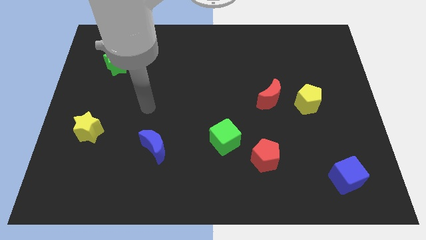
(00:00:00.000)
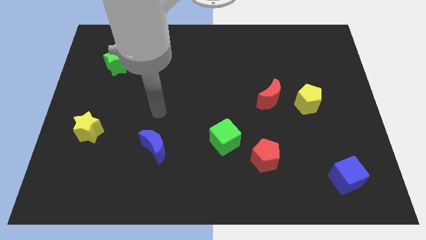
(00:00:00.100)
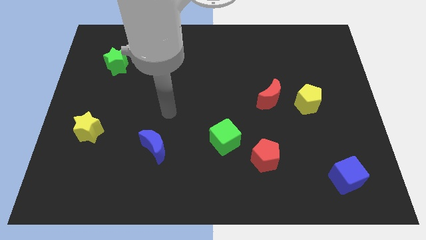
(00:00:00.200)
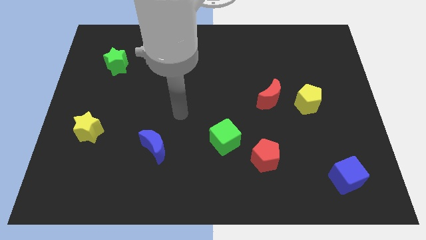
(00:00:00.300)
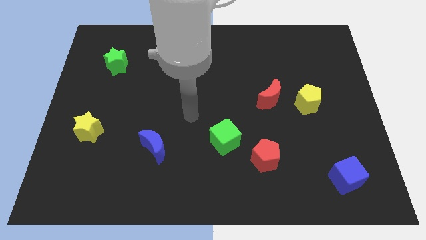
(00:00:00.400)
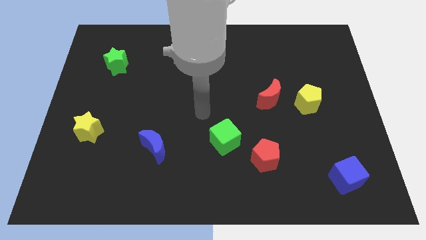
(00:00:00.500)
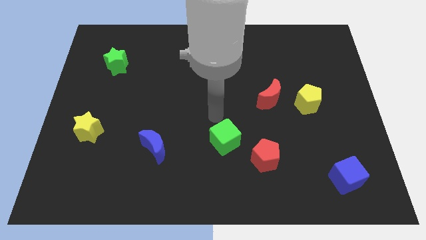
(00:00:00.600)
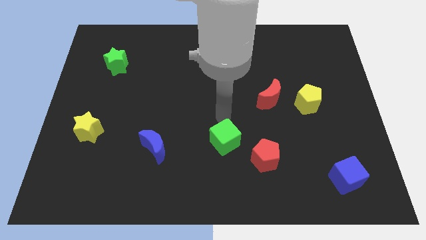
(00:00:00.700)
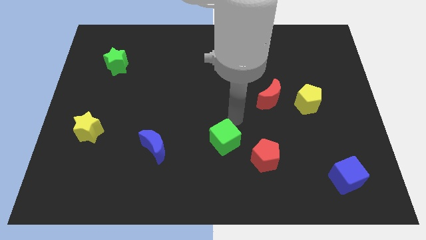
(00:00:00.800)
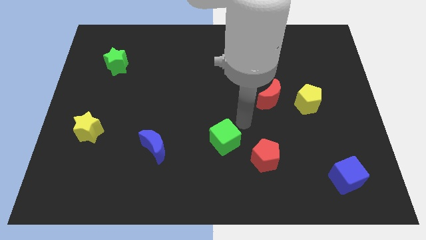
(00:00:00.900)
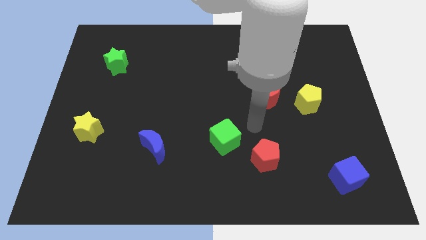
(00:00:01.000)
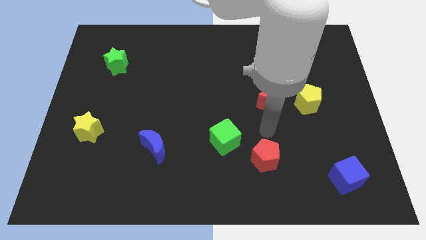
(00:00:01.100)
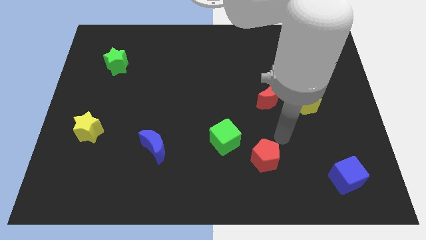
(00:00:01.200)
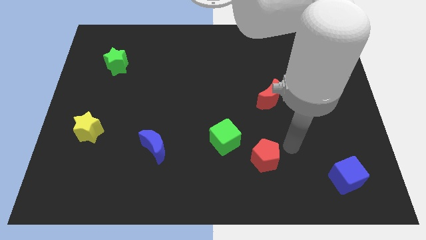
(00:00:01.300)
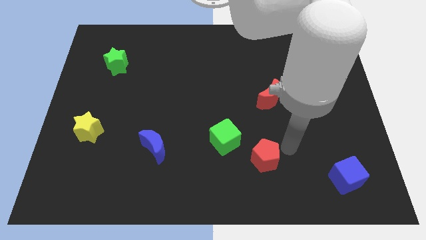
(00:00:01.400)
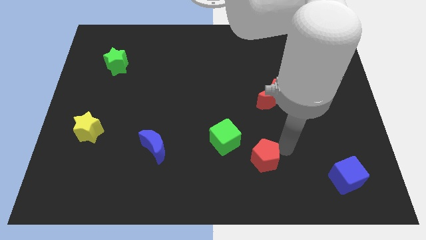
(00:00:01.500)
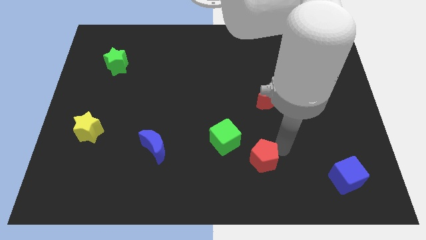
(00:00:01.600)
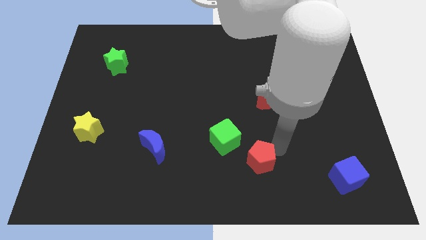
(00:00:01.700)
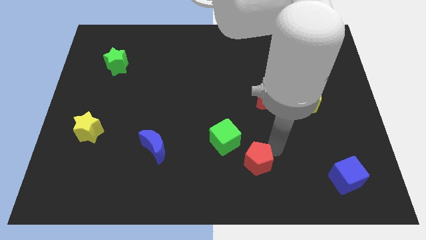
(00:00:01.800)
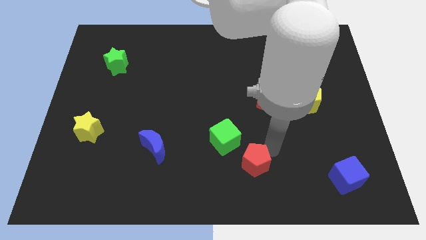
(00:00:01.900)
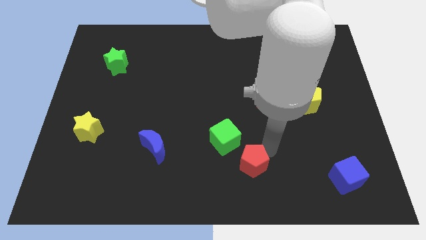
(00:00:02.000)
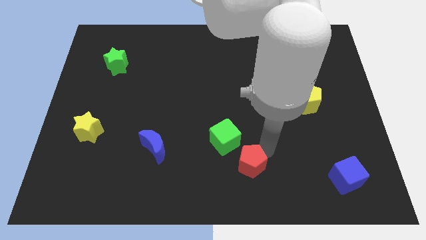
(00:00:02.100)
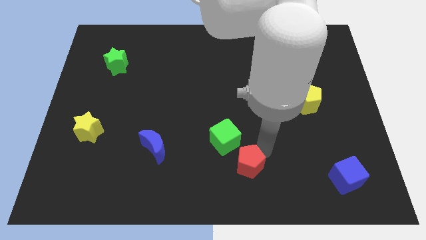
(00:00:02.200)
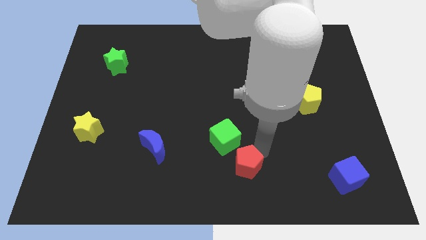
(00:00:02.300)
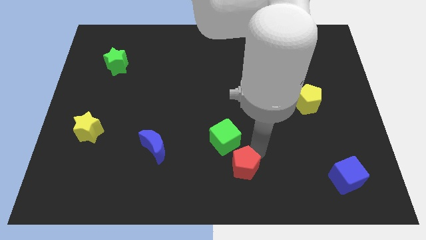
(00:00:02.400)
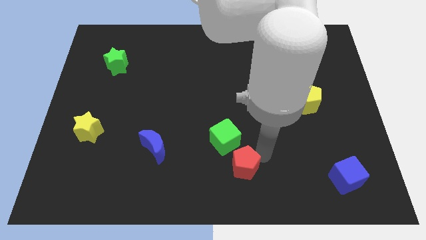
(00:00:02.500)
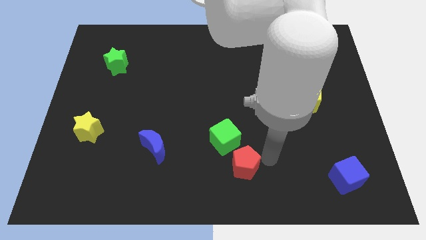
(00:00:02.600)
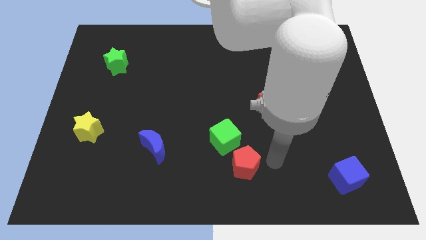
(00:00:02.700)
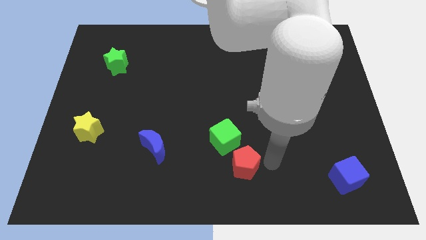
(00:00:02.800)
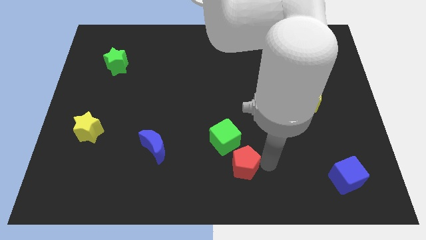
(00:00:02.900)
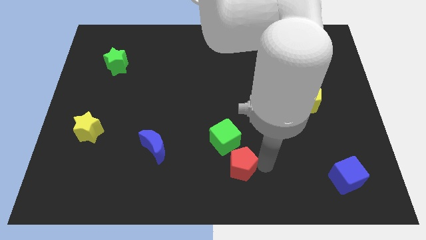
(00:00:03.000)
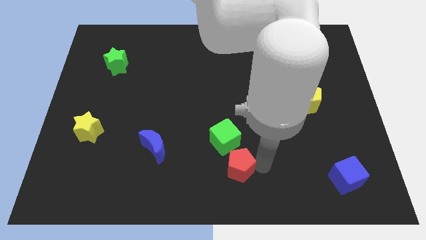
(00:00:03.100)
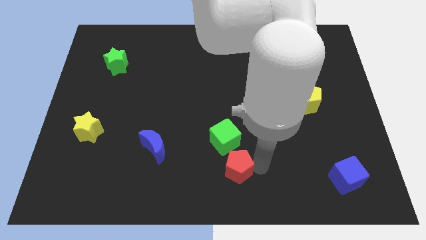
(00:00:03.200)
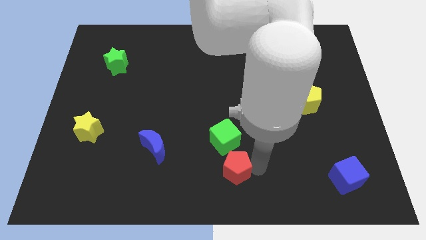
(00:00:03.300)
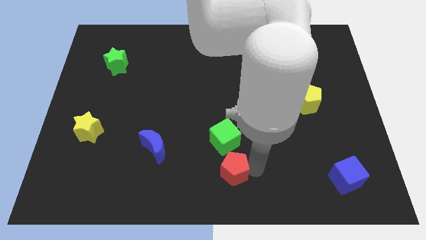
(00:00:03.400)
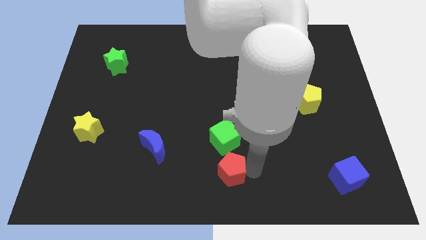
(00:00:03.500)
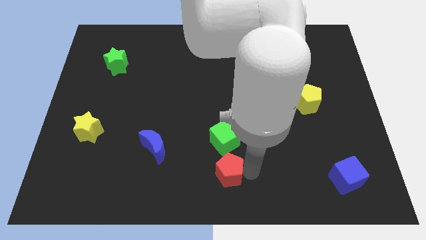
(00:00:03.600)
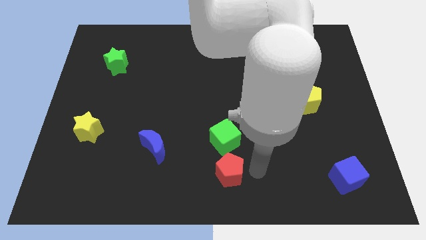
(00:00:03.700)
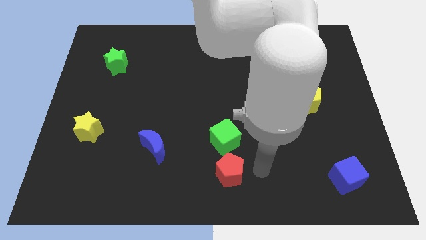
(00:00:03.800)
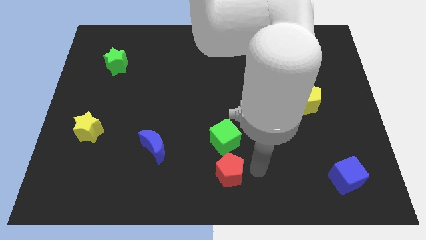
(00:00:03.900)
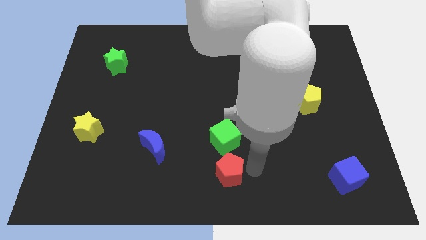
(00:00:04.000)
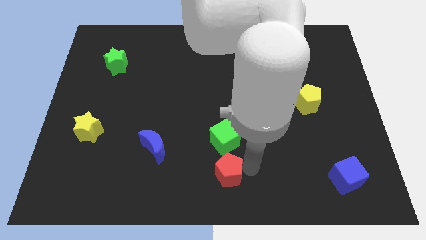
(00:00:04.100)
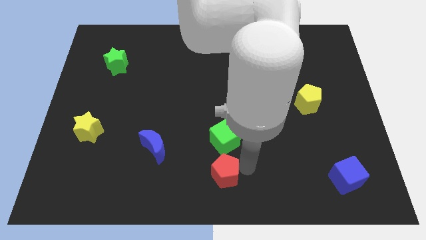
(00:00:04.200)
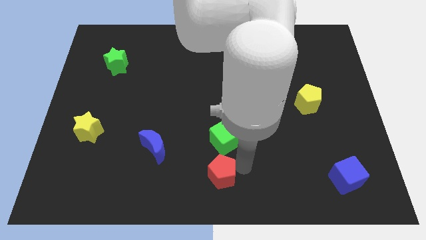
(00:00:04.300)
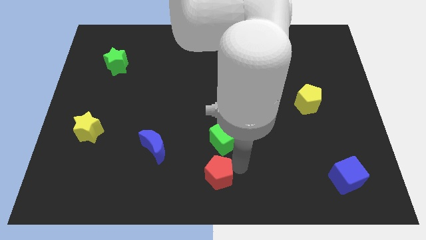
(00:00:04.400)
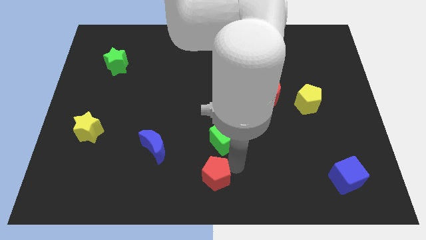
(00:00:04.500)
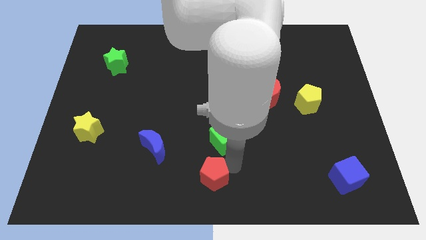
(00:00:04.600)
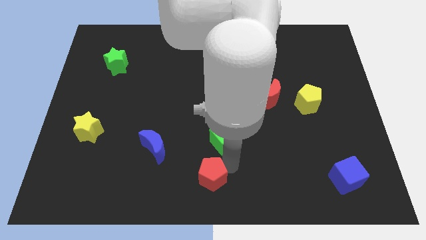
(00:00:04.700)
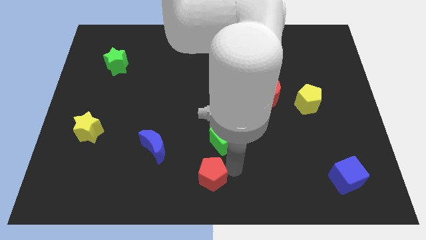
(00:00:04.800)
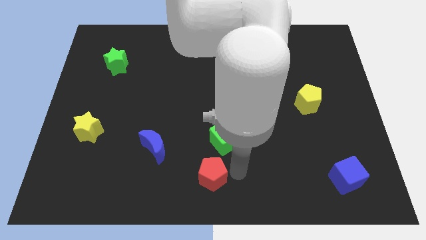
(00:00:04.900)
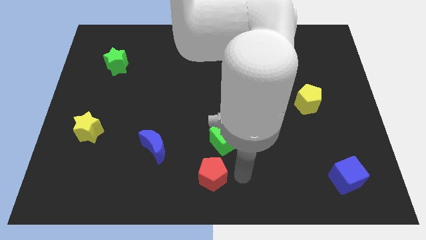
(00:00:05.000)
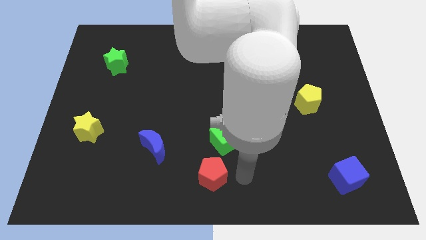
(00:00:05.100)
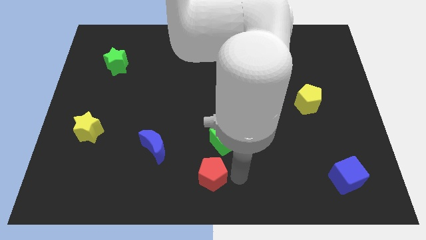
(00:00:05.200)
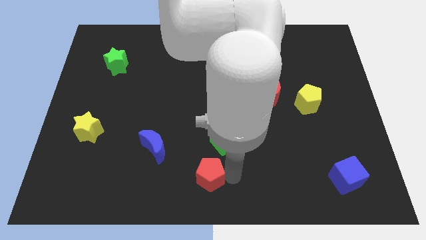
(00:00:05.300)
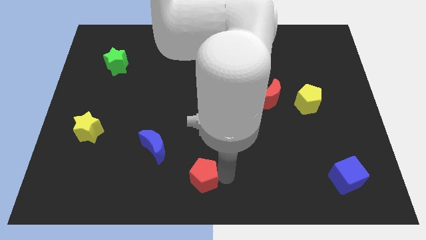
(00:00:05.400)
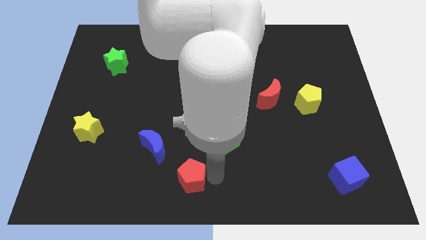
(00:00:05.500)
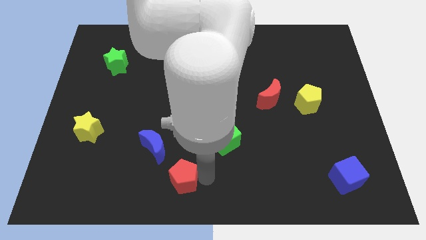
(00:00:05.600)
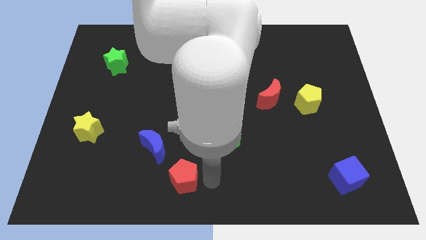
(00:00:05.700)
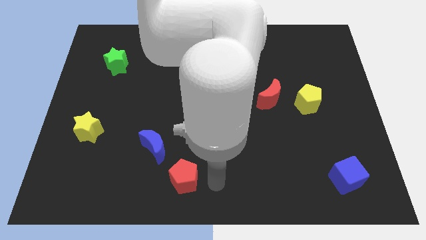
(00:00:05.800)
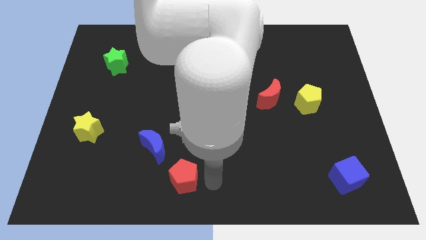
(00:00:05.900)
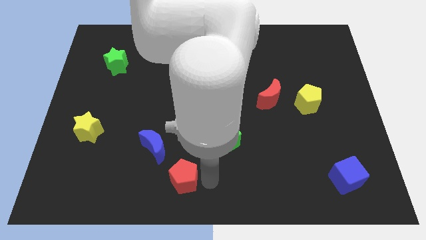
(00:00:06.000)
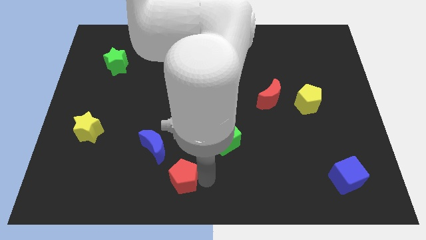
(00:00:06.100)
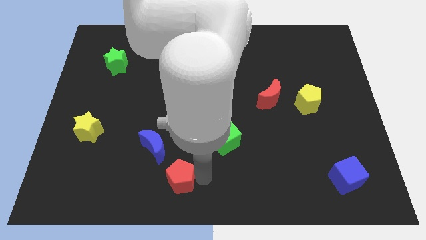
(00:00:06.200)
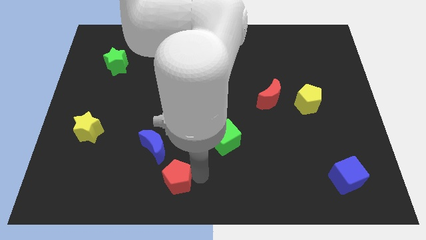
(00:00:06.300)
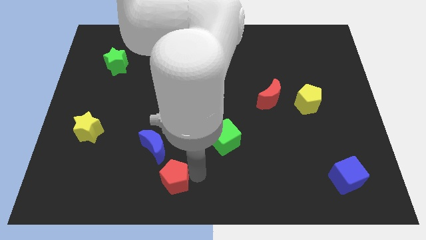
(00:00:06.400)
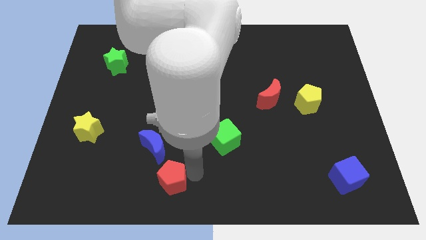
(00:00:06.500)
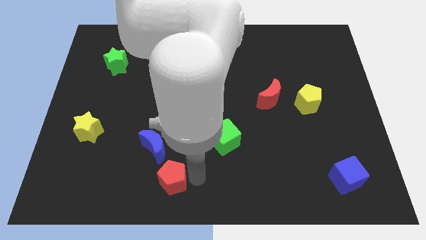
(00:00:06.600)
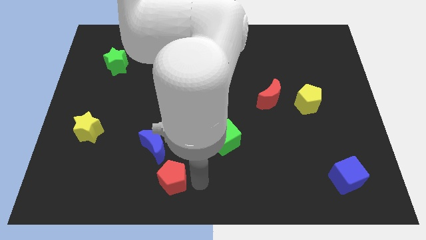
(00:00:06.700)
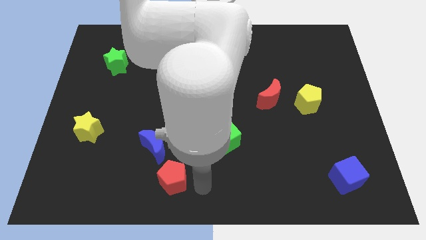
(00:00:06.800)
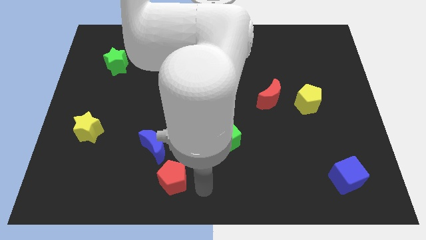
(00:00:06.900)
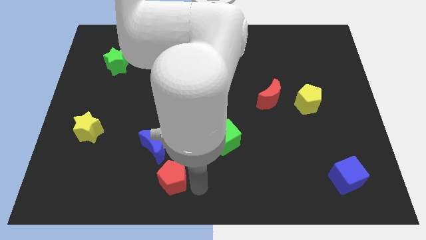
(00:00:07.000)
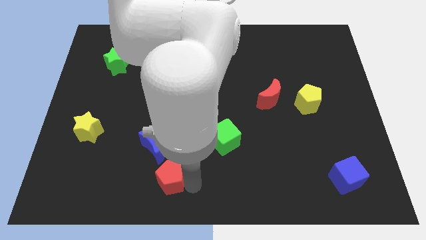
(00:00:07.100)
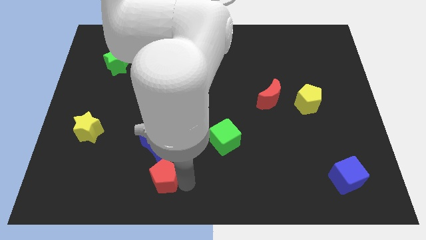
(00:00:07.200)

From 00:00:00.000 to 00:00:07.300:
push the red pentagon left

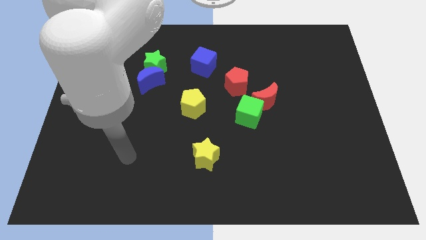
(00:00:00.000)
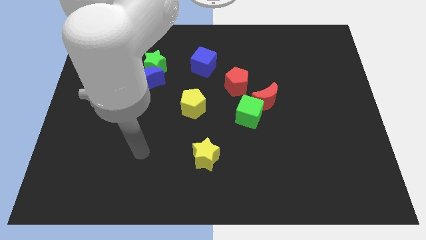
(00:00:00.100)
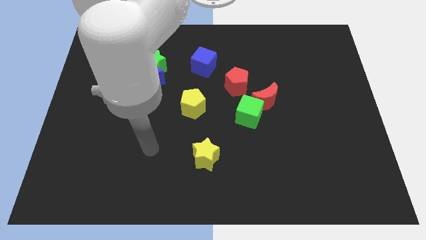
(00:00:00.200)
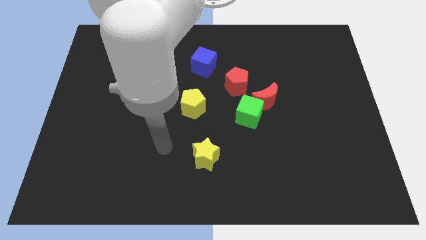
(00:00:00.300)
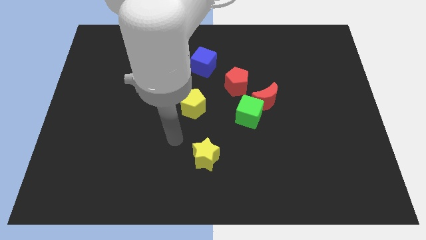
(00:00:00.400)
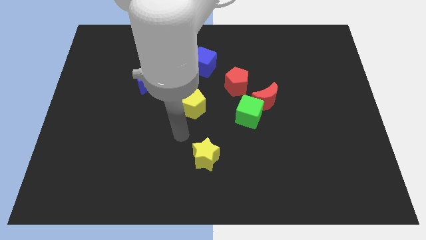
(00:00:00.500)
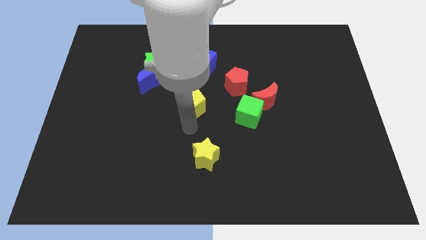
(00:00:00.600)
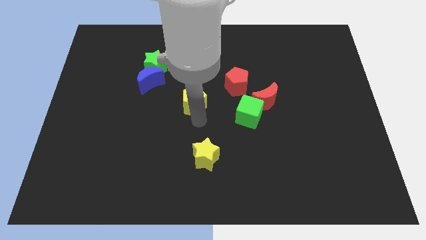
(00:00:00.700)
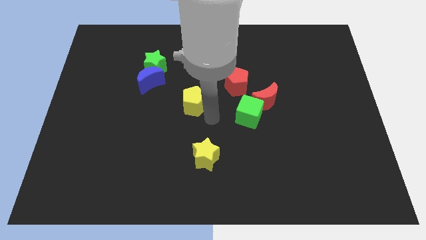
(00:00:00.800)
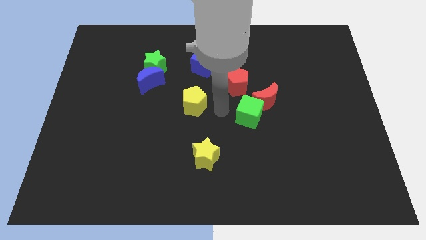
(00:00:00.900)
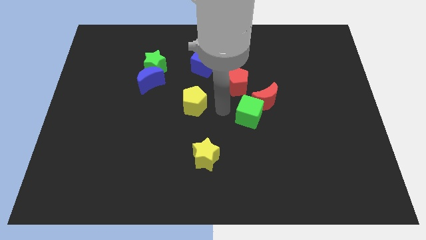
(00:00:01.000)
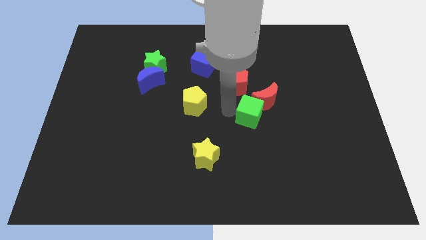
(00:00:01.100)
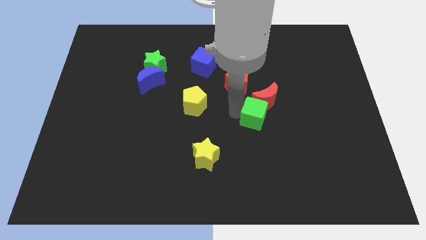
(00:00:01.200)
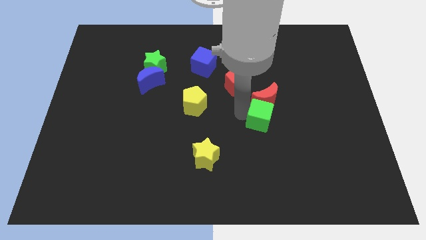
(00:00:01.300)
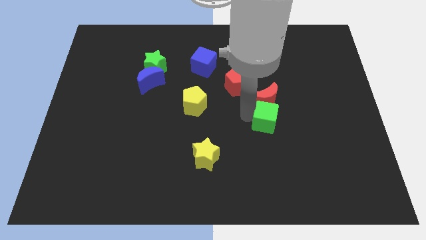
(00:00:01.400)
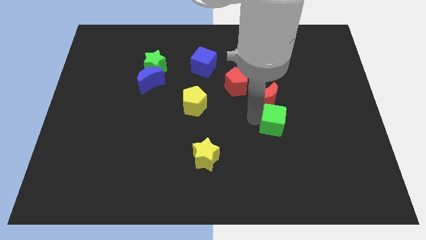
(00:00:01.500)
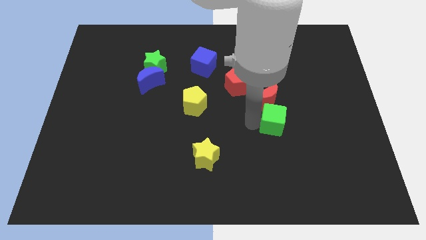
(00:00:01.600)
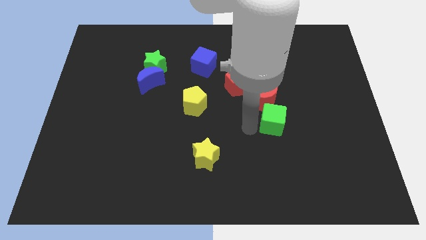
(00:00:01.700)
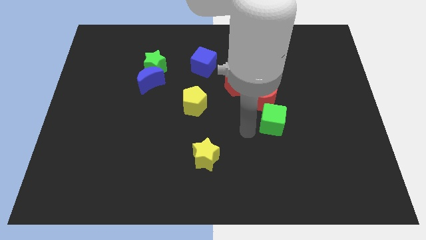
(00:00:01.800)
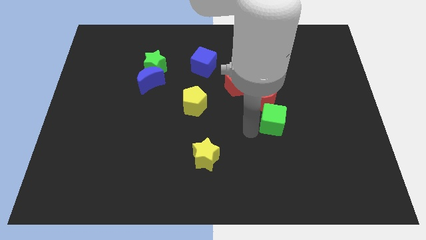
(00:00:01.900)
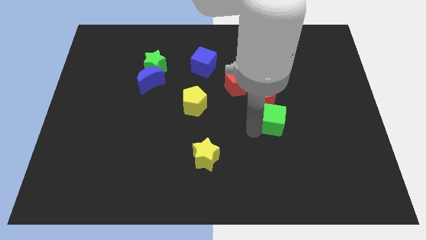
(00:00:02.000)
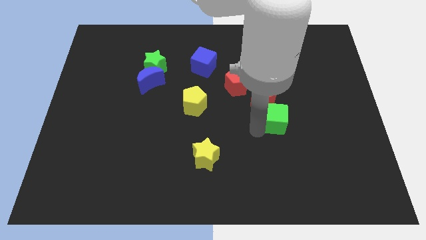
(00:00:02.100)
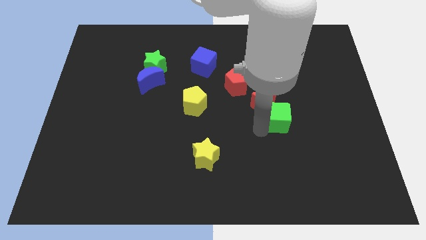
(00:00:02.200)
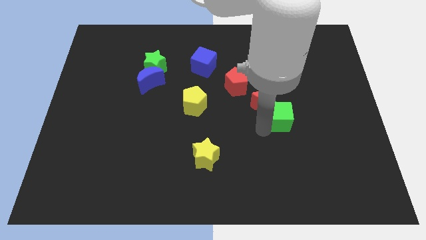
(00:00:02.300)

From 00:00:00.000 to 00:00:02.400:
move the green cube a little right
